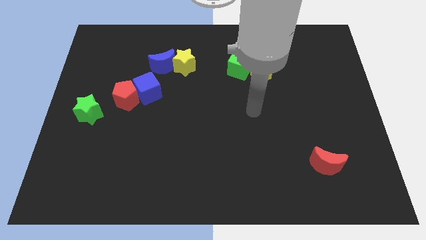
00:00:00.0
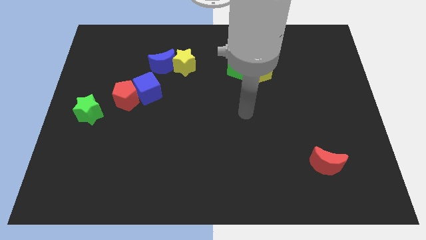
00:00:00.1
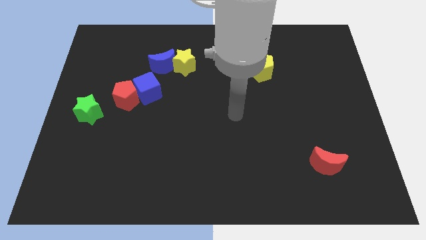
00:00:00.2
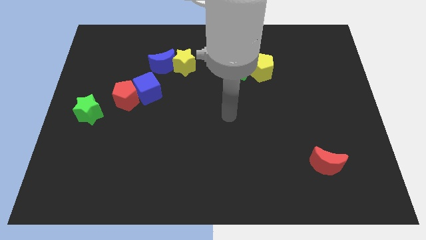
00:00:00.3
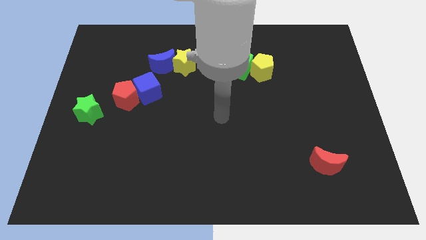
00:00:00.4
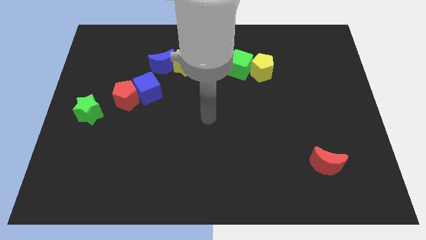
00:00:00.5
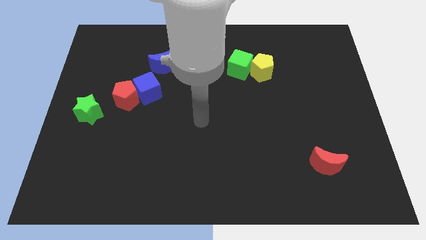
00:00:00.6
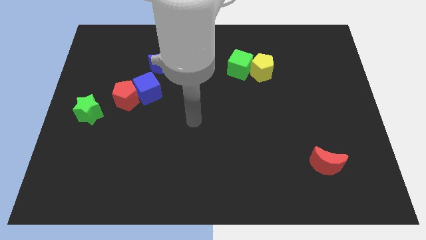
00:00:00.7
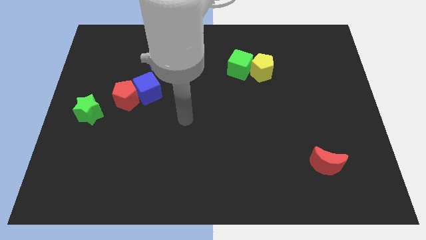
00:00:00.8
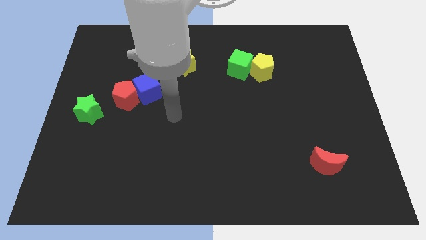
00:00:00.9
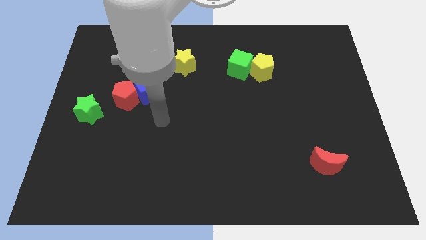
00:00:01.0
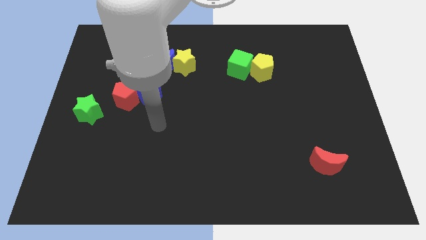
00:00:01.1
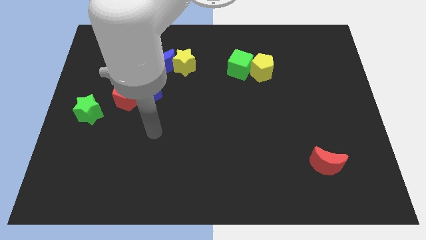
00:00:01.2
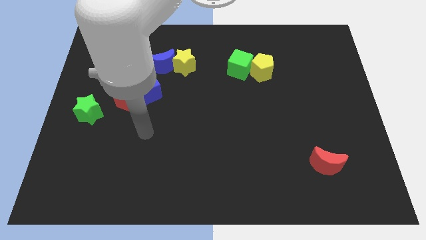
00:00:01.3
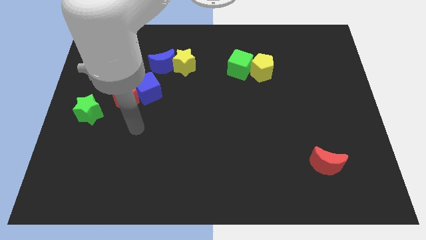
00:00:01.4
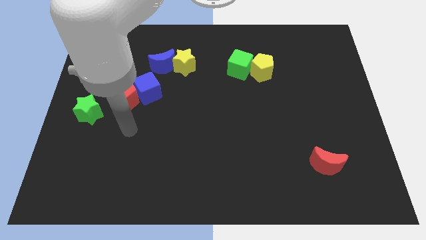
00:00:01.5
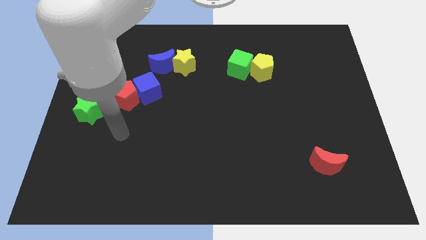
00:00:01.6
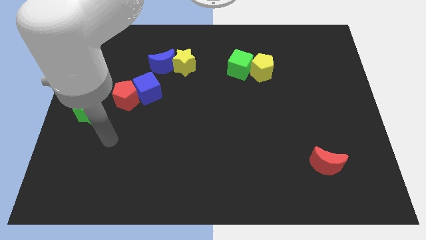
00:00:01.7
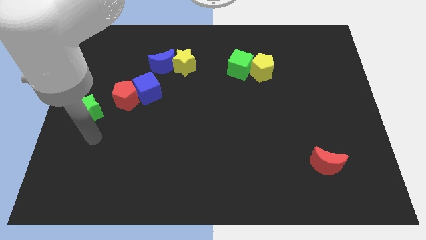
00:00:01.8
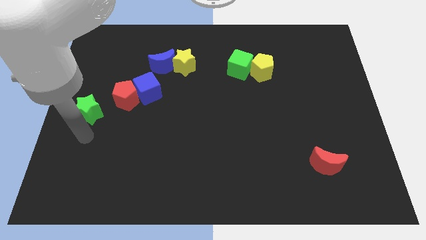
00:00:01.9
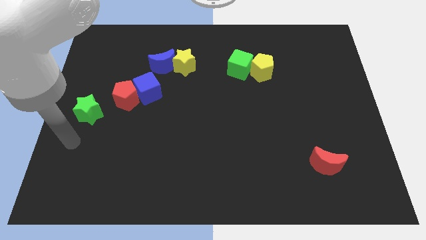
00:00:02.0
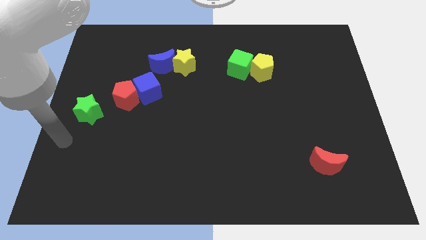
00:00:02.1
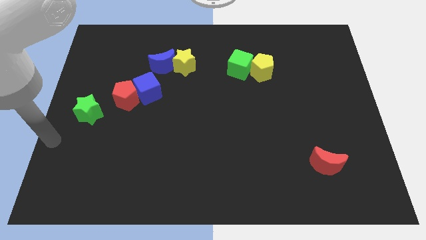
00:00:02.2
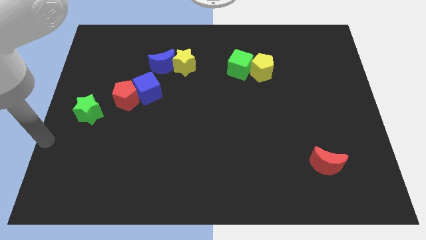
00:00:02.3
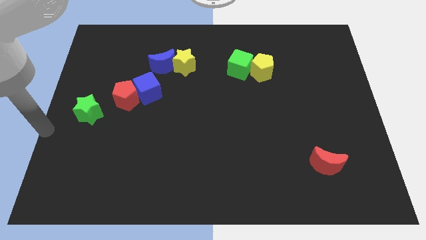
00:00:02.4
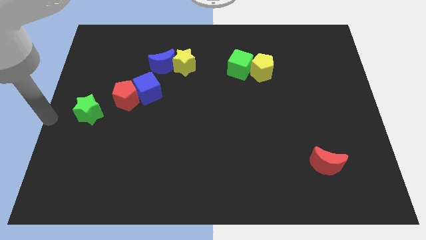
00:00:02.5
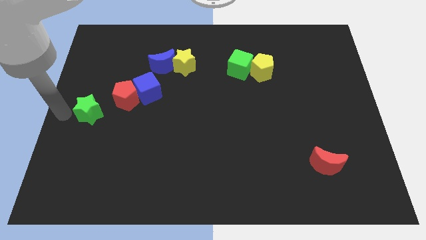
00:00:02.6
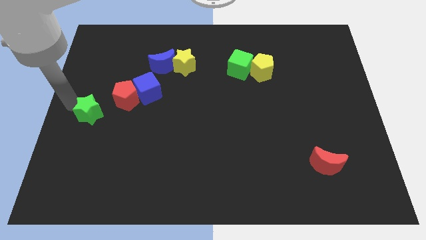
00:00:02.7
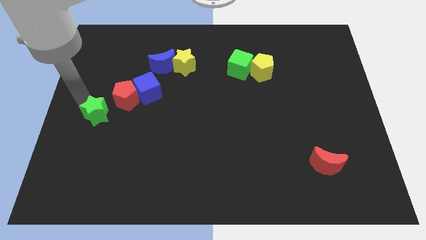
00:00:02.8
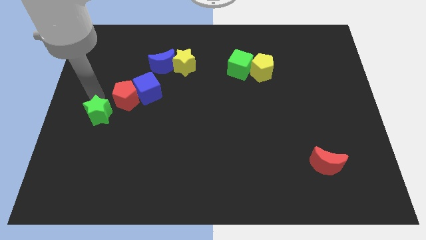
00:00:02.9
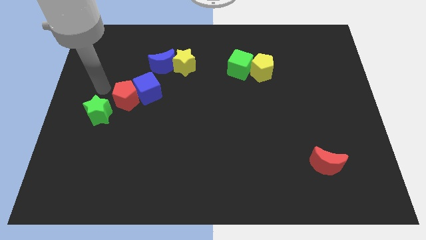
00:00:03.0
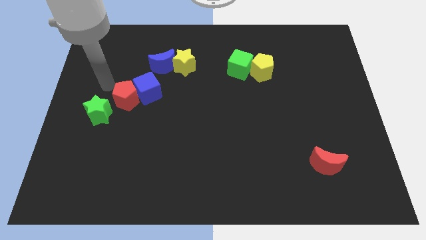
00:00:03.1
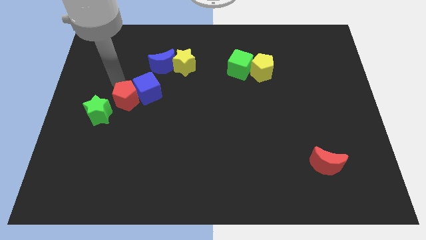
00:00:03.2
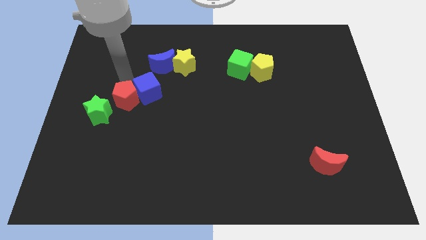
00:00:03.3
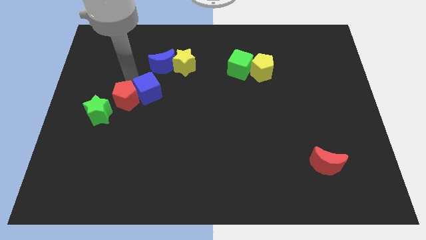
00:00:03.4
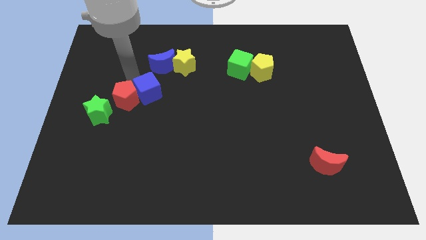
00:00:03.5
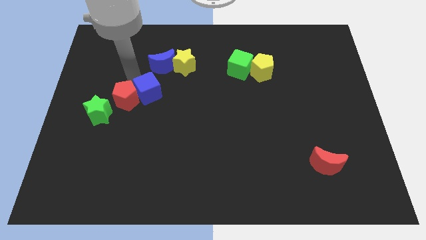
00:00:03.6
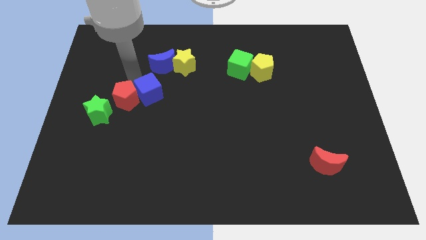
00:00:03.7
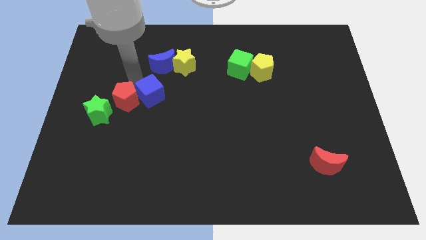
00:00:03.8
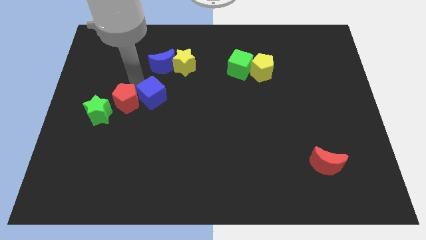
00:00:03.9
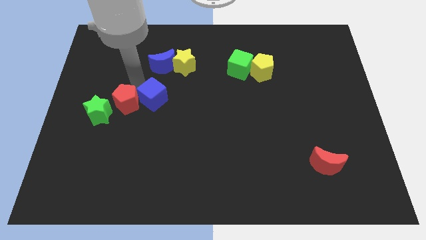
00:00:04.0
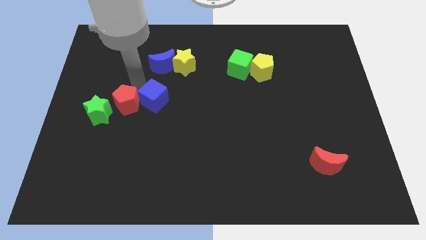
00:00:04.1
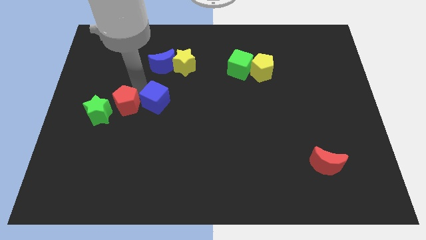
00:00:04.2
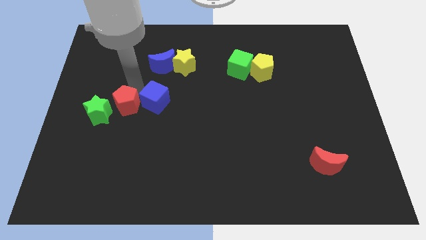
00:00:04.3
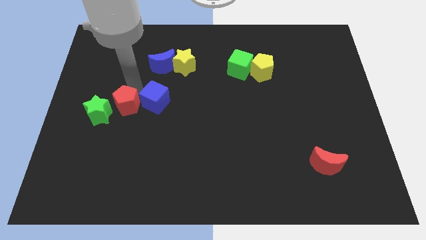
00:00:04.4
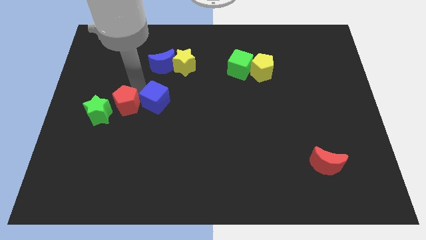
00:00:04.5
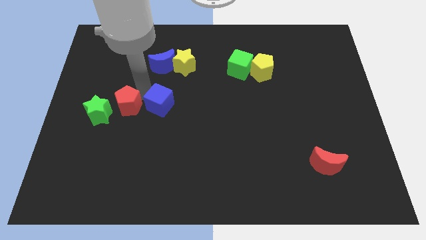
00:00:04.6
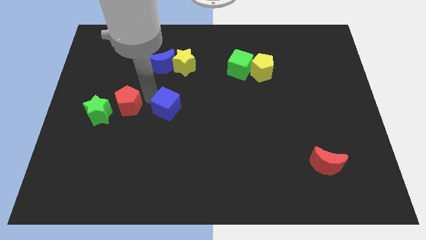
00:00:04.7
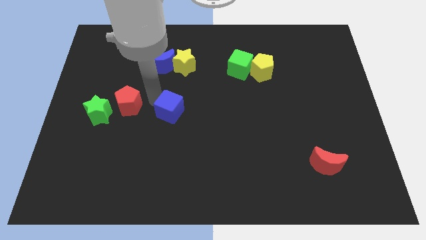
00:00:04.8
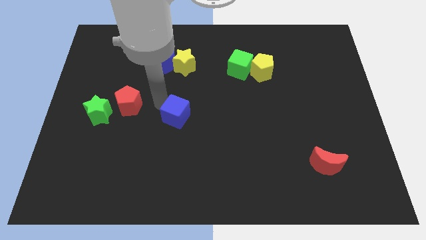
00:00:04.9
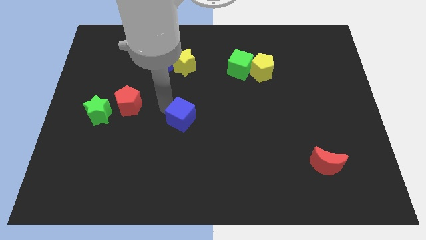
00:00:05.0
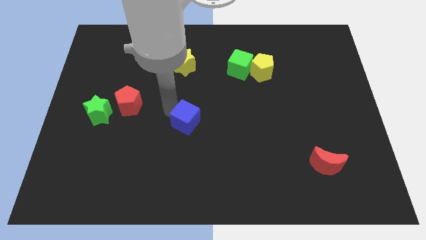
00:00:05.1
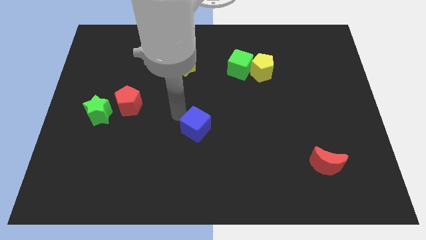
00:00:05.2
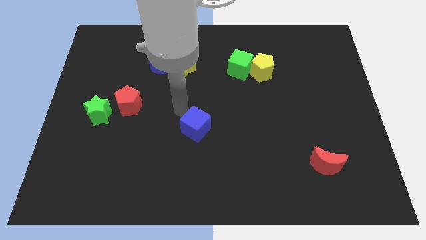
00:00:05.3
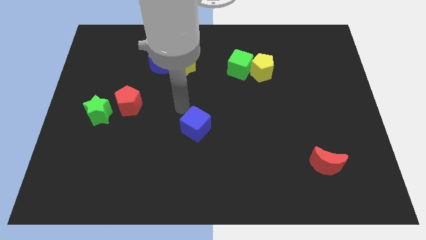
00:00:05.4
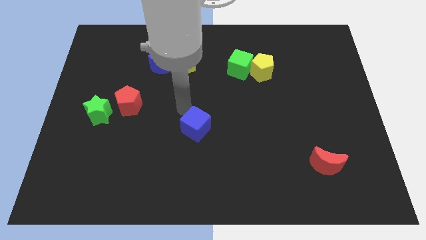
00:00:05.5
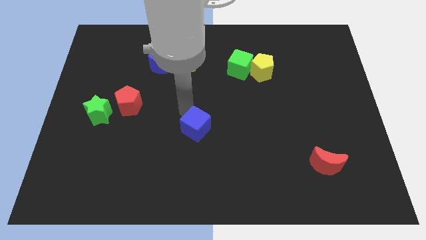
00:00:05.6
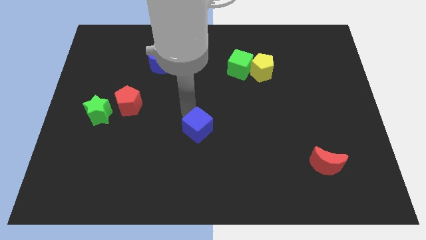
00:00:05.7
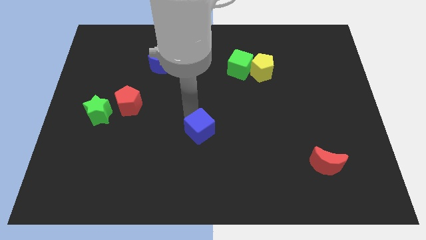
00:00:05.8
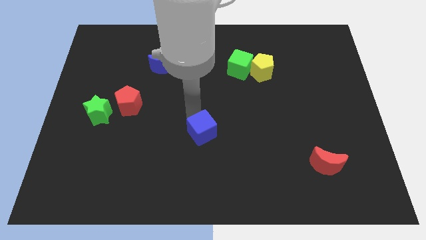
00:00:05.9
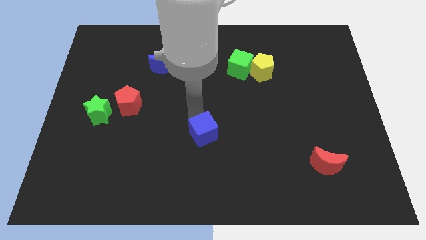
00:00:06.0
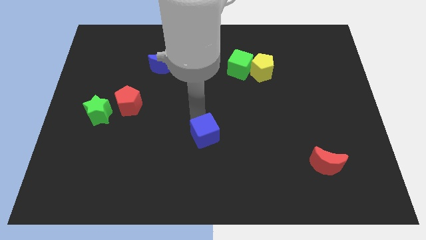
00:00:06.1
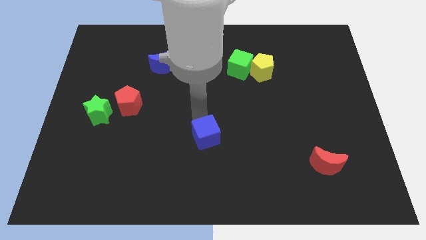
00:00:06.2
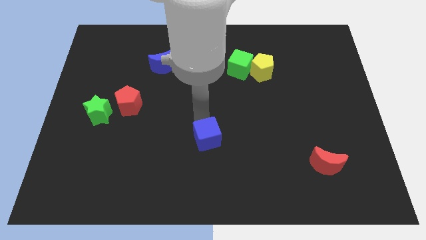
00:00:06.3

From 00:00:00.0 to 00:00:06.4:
move the blue cube down and then right

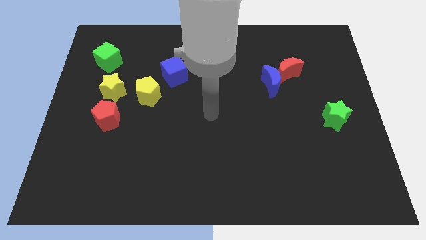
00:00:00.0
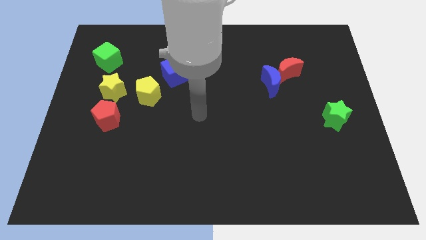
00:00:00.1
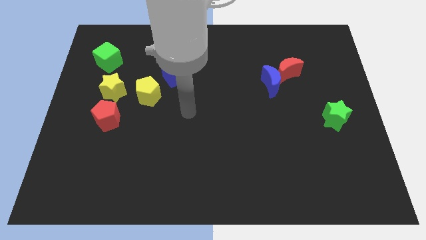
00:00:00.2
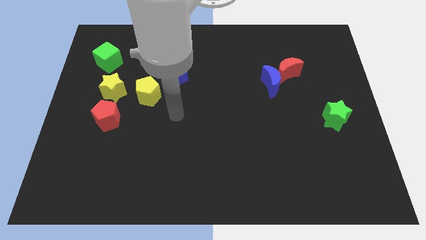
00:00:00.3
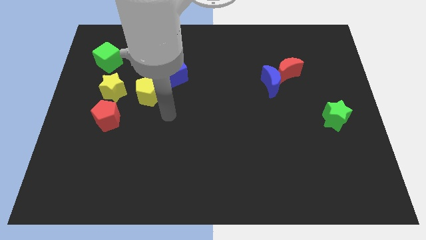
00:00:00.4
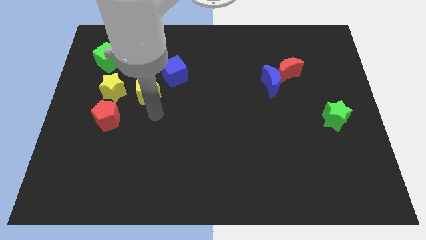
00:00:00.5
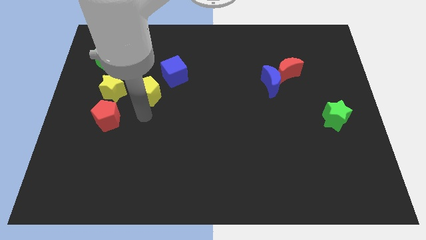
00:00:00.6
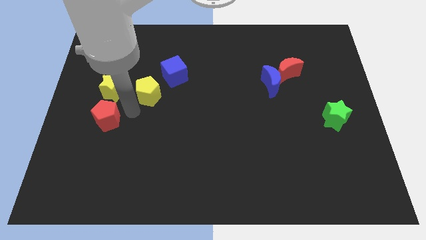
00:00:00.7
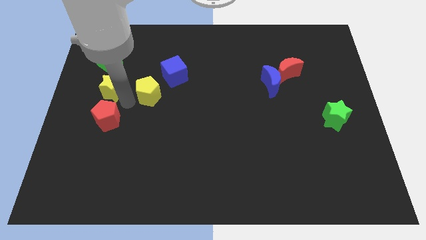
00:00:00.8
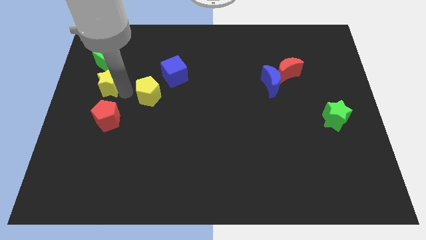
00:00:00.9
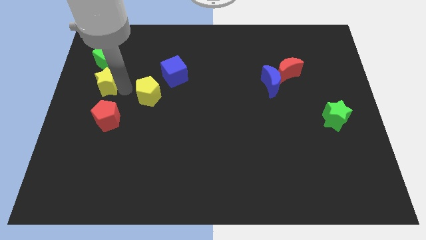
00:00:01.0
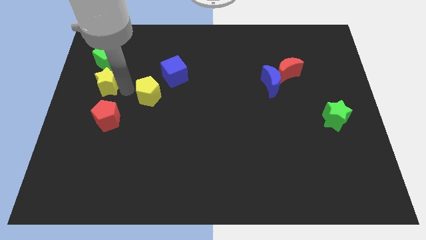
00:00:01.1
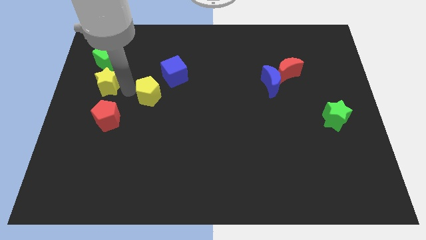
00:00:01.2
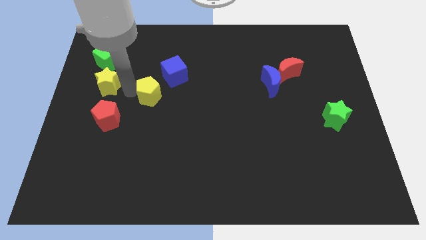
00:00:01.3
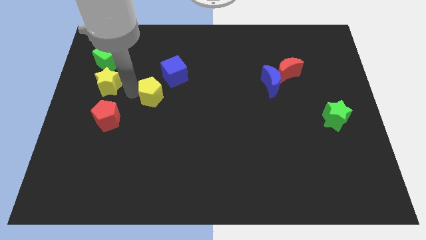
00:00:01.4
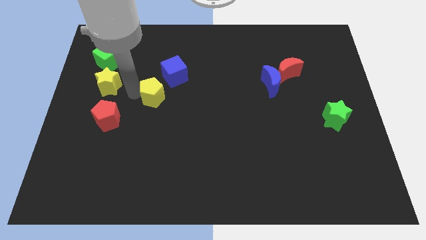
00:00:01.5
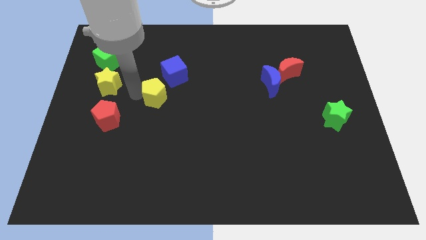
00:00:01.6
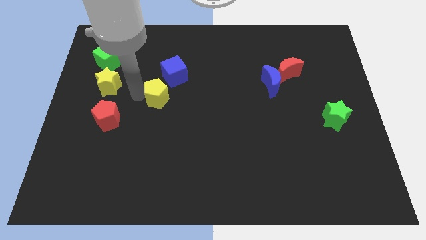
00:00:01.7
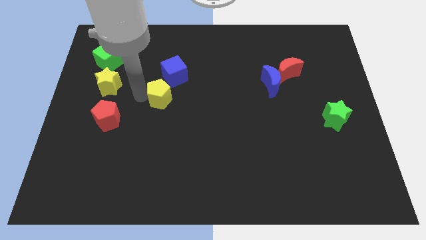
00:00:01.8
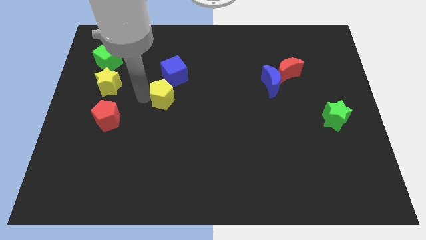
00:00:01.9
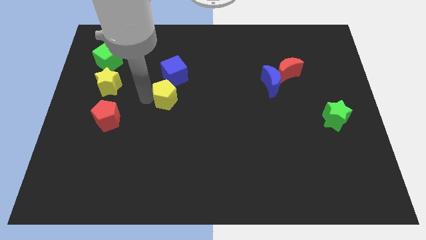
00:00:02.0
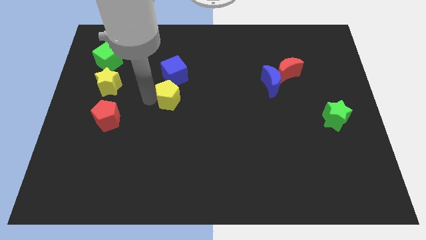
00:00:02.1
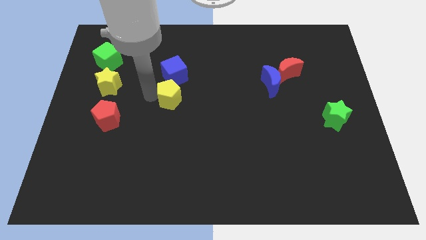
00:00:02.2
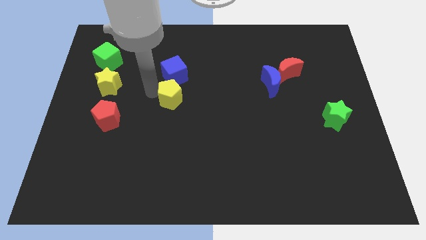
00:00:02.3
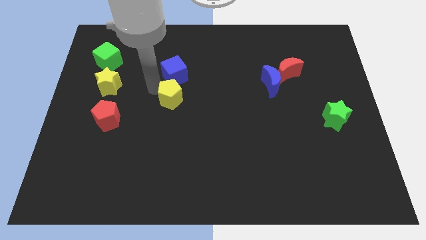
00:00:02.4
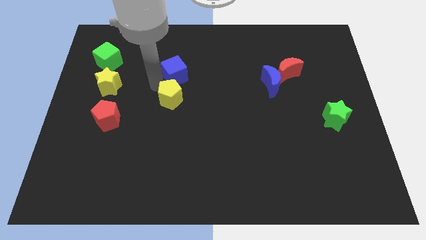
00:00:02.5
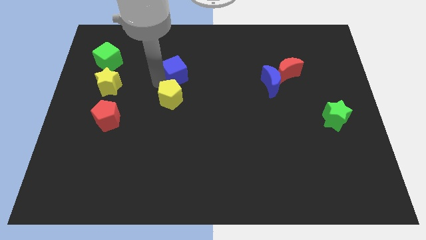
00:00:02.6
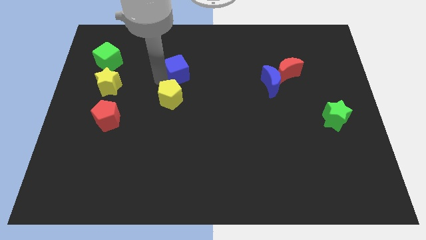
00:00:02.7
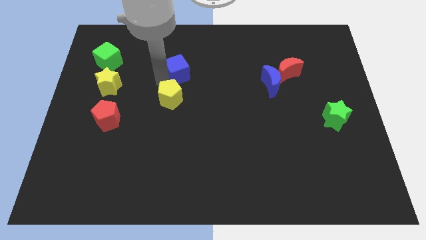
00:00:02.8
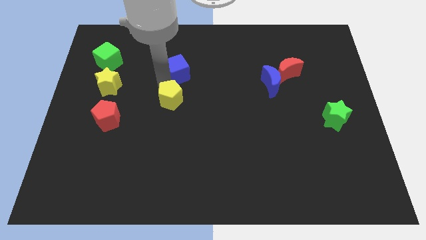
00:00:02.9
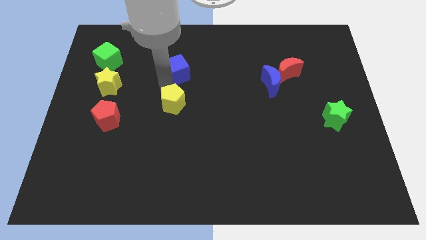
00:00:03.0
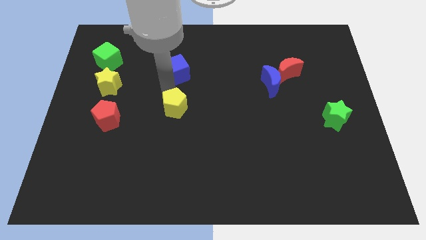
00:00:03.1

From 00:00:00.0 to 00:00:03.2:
push the yellow pentagon slightly diagonally downwards and to the right
